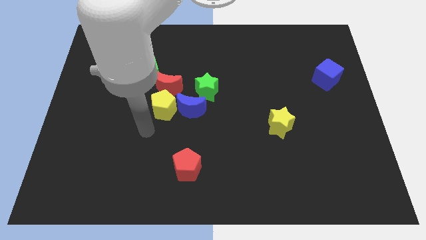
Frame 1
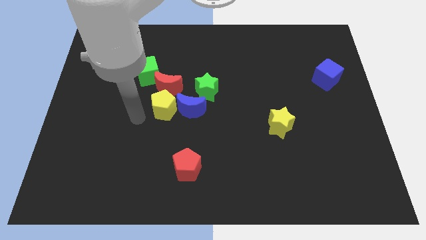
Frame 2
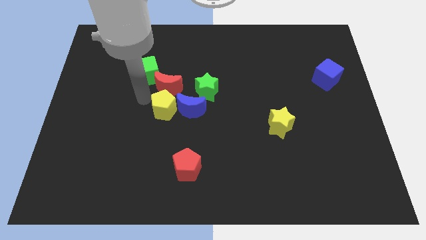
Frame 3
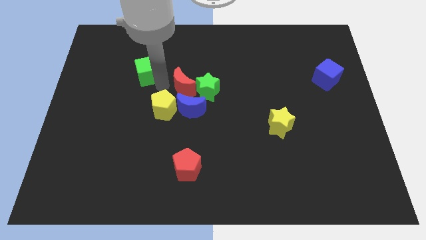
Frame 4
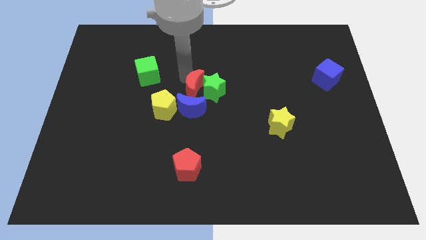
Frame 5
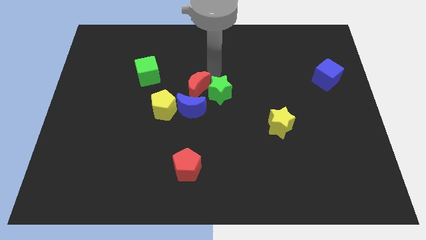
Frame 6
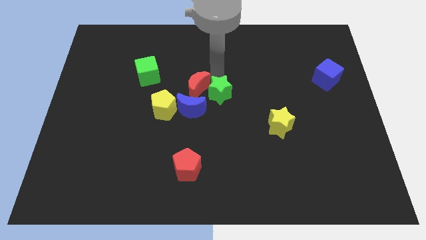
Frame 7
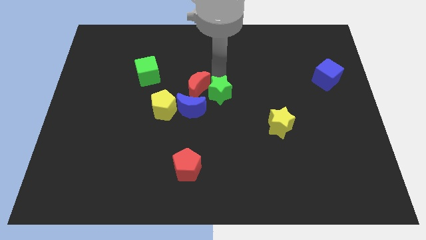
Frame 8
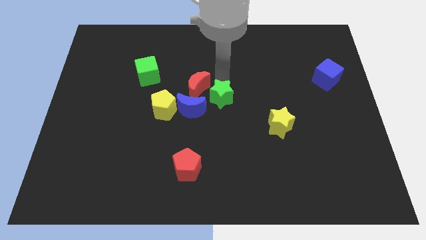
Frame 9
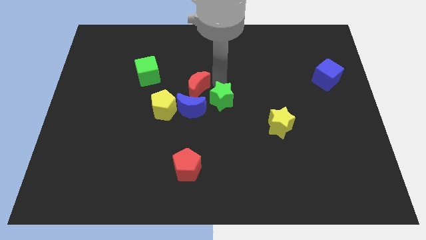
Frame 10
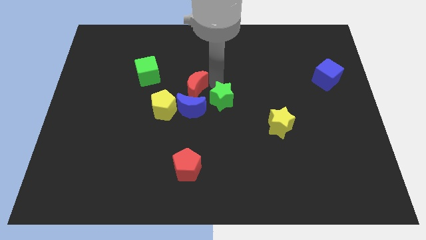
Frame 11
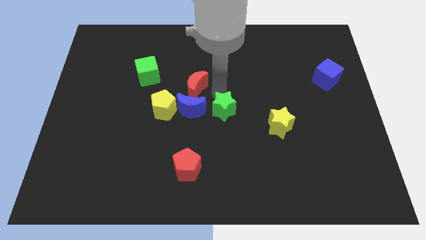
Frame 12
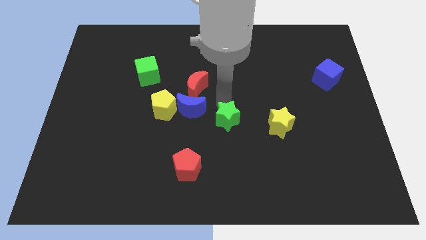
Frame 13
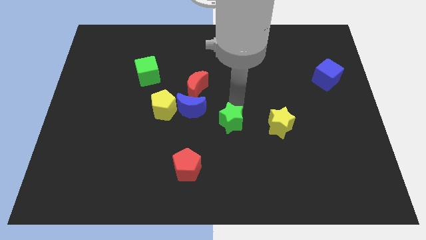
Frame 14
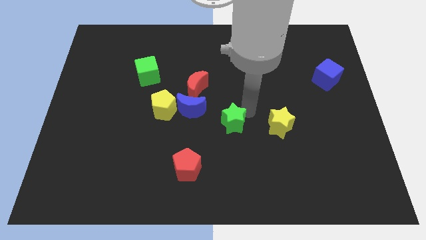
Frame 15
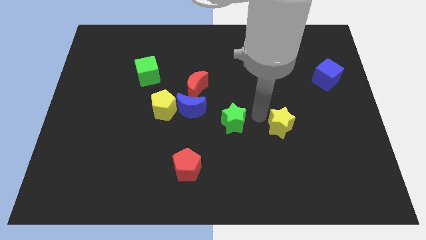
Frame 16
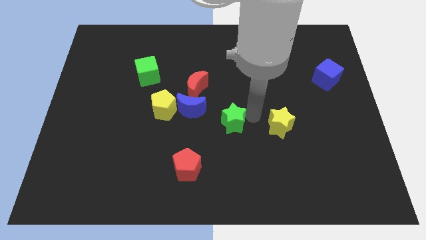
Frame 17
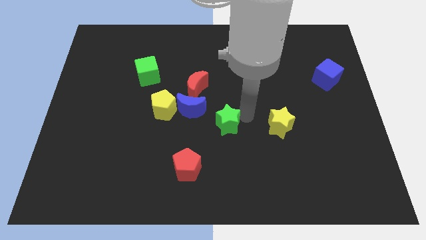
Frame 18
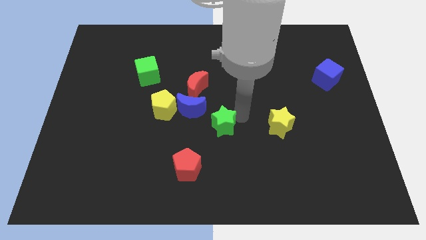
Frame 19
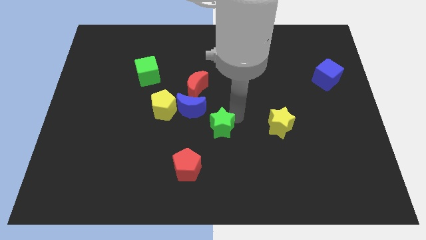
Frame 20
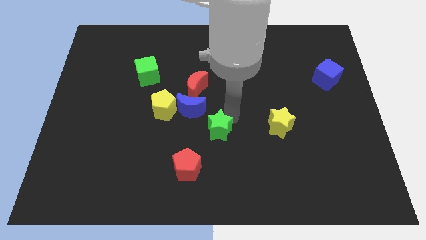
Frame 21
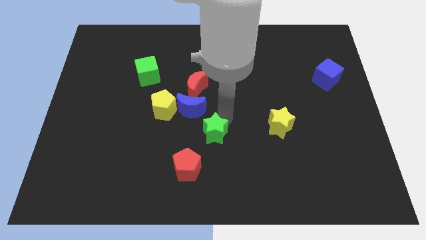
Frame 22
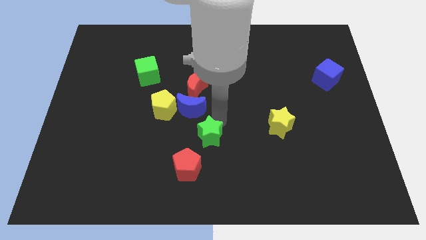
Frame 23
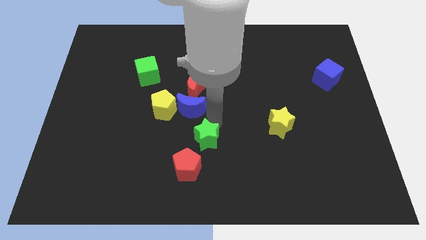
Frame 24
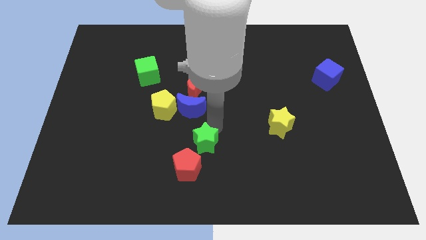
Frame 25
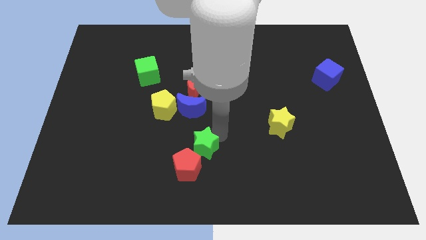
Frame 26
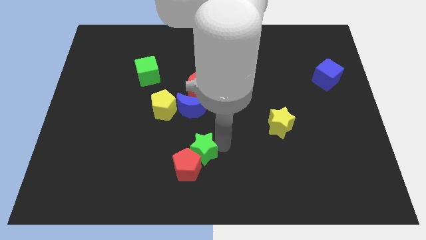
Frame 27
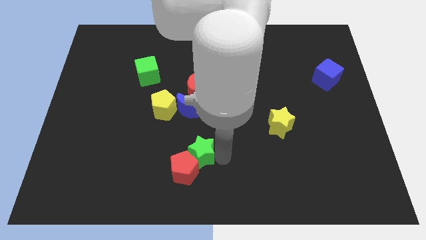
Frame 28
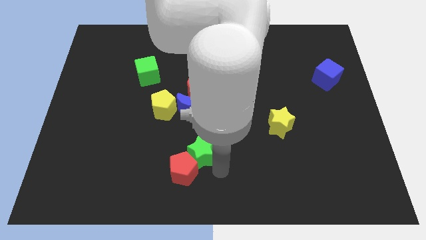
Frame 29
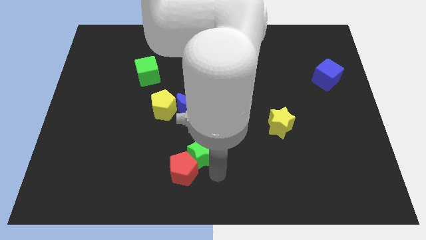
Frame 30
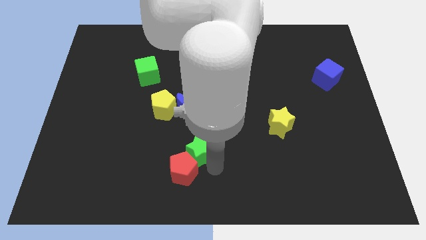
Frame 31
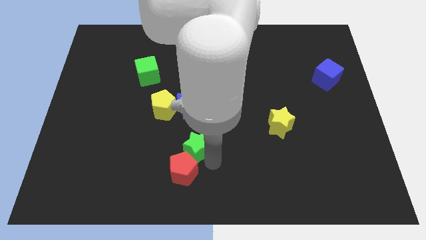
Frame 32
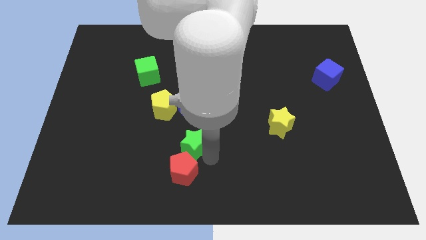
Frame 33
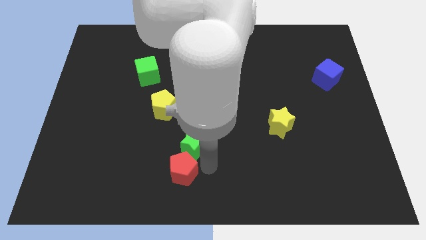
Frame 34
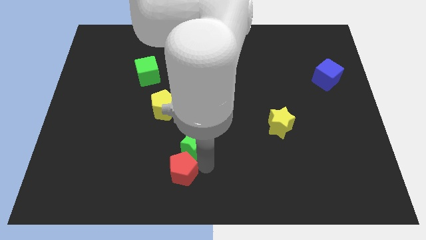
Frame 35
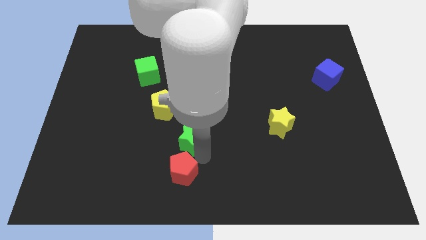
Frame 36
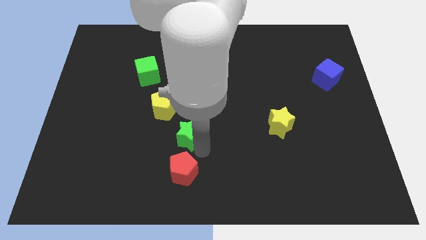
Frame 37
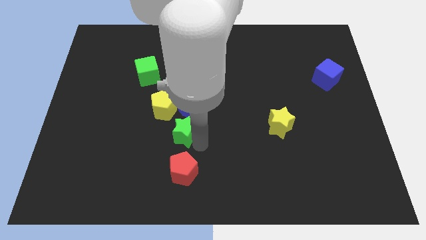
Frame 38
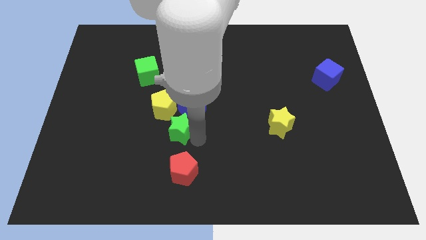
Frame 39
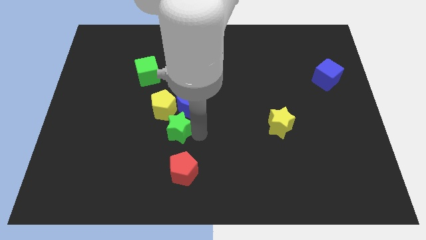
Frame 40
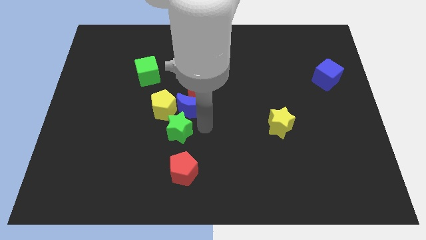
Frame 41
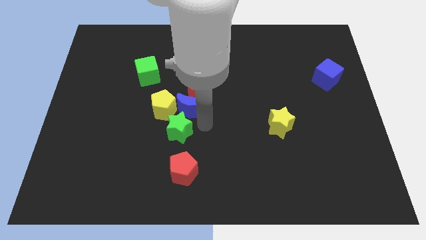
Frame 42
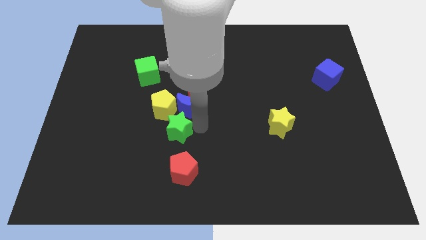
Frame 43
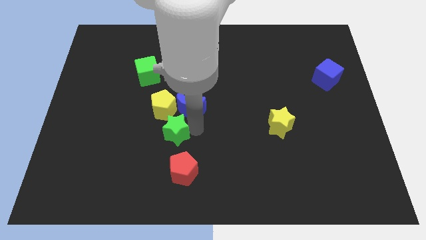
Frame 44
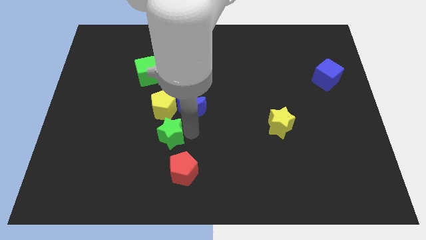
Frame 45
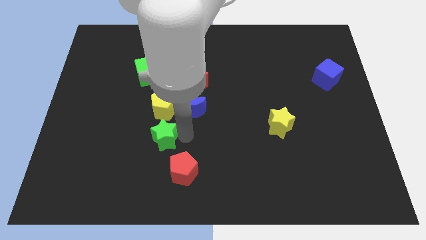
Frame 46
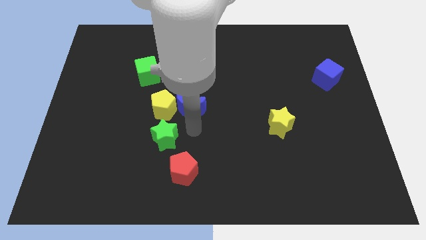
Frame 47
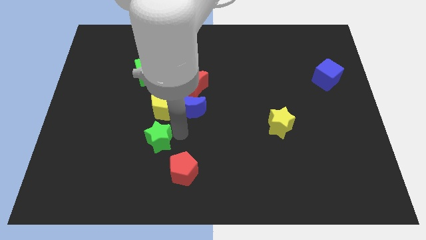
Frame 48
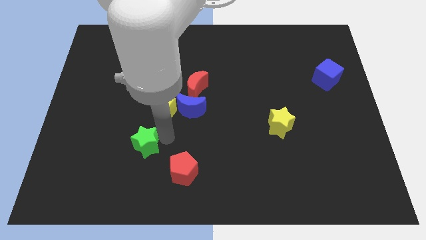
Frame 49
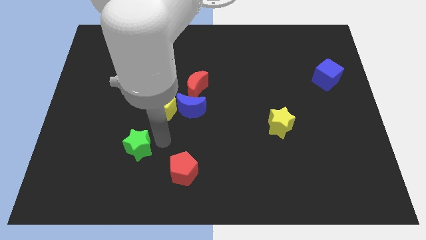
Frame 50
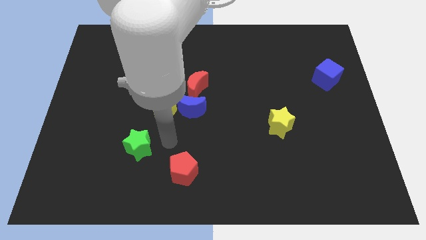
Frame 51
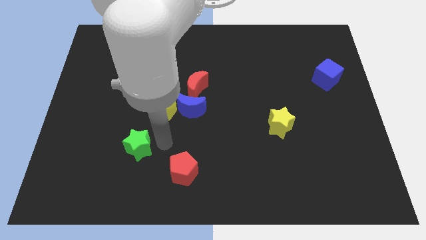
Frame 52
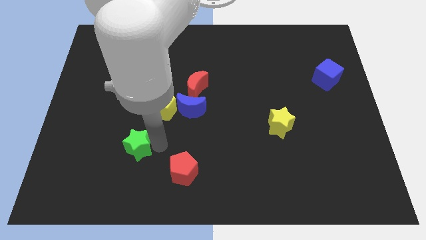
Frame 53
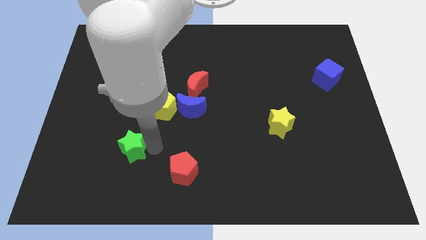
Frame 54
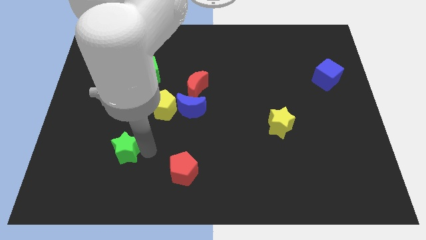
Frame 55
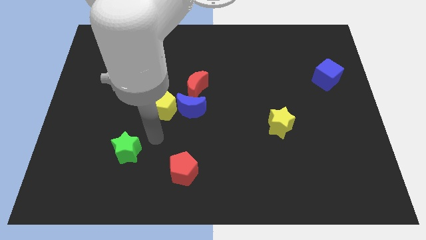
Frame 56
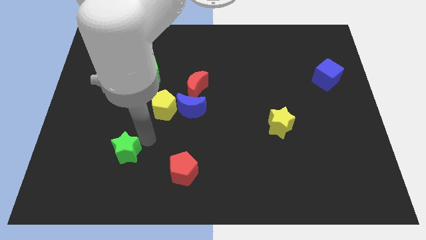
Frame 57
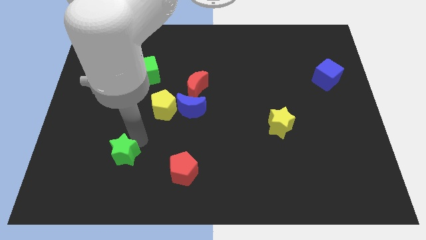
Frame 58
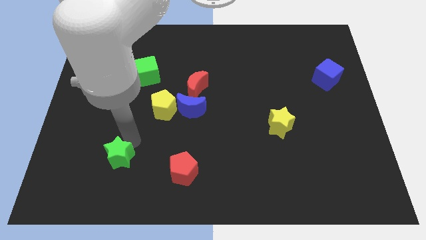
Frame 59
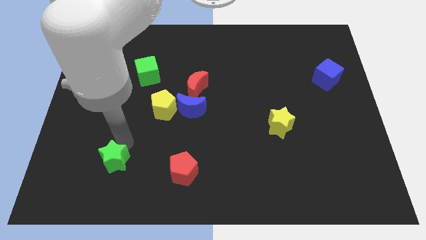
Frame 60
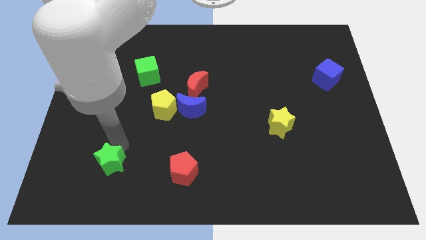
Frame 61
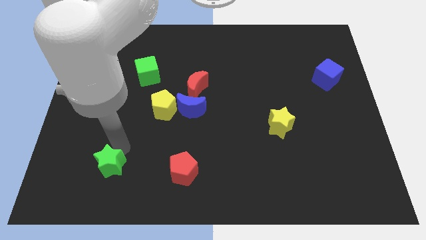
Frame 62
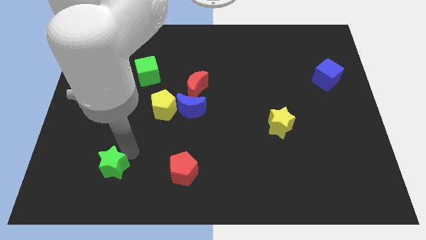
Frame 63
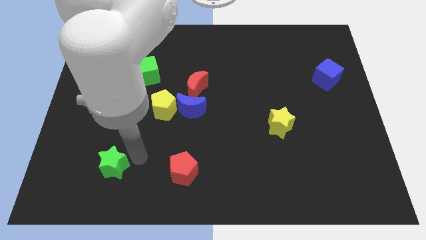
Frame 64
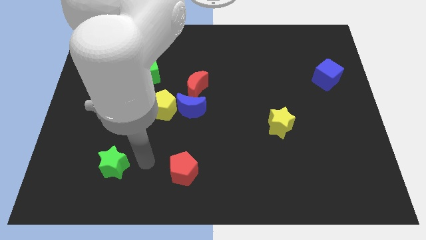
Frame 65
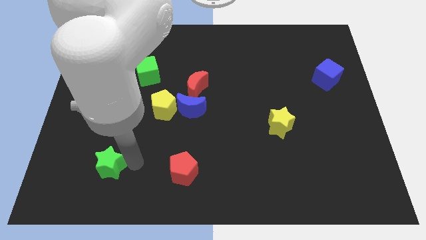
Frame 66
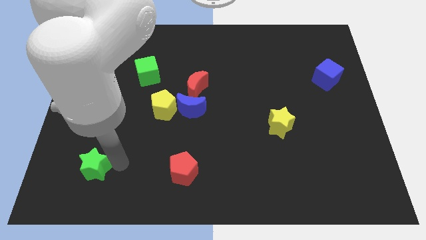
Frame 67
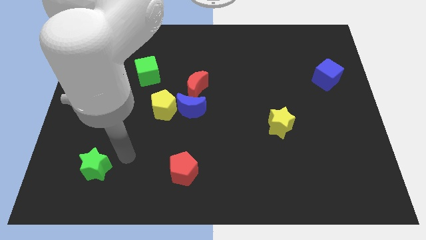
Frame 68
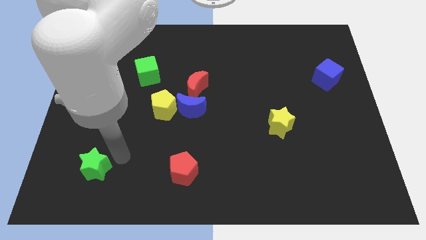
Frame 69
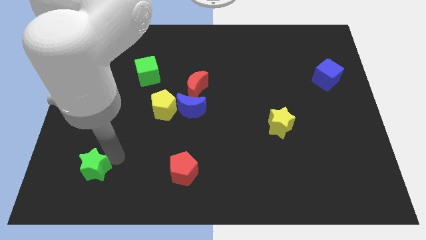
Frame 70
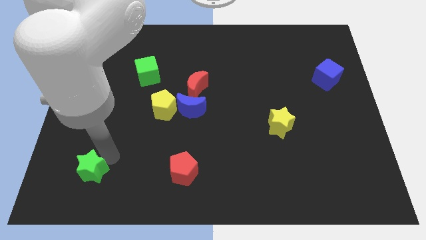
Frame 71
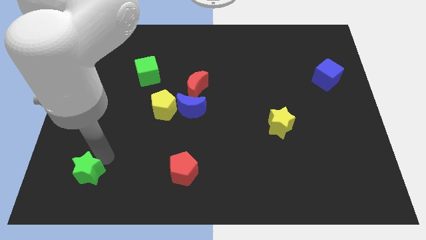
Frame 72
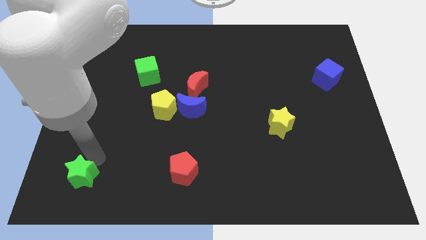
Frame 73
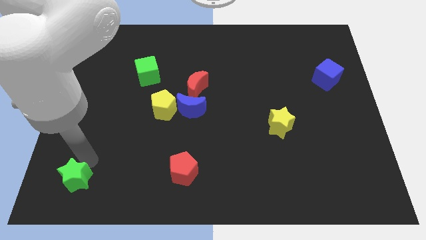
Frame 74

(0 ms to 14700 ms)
move the green star to the bottom left of the board
